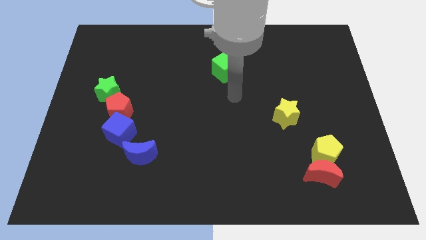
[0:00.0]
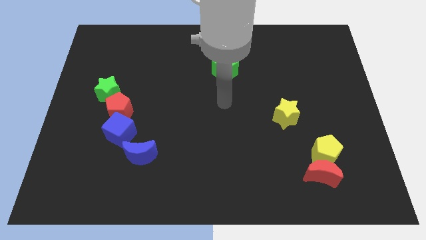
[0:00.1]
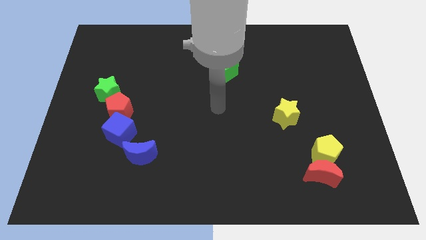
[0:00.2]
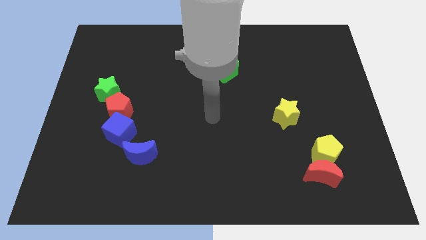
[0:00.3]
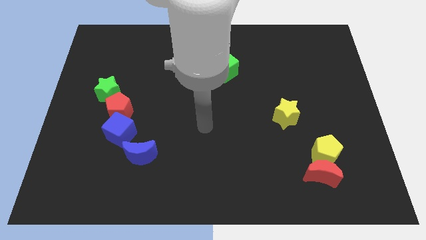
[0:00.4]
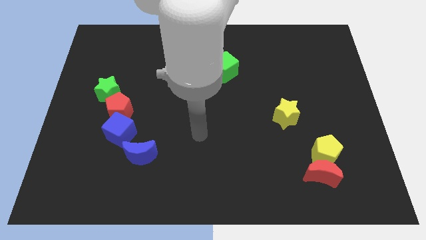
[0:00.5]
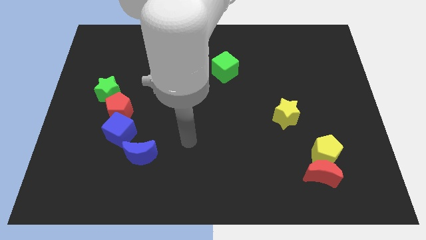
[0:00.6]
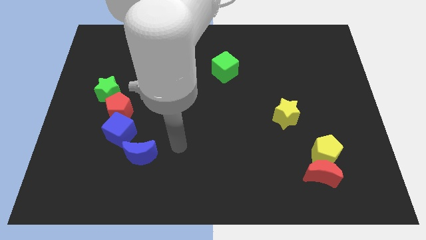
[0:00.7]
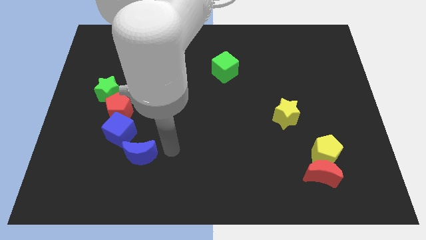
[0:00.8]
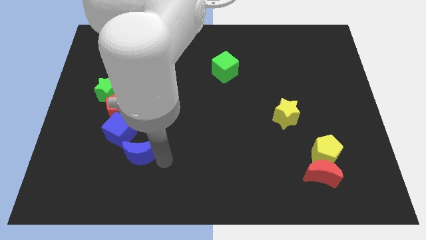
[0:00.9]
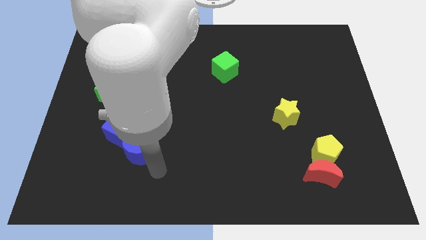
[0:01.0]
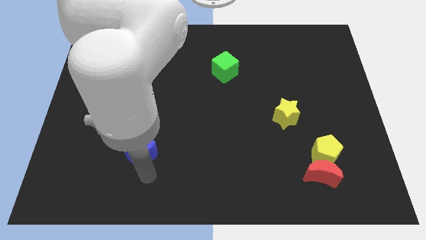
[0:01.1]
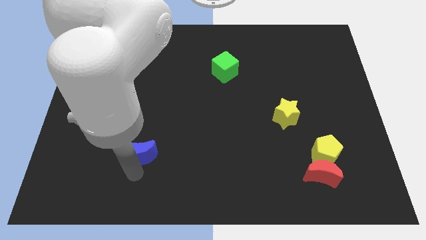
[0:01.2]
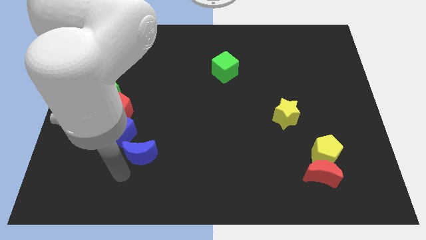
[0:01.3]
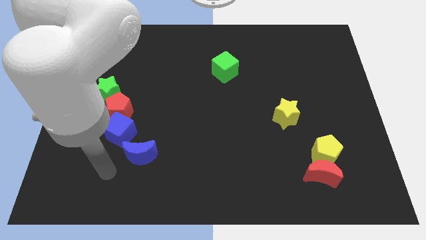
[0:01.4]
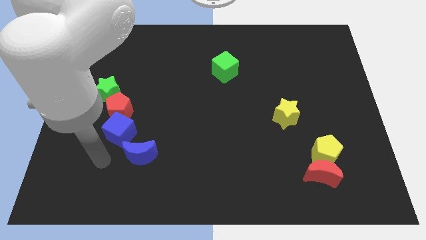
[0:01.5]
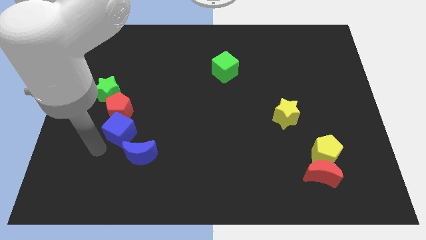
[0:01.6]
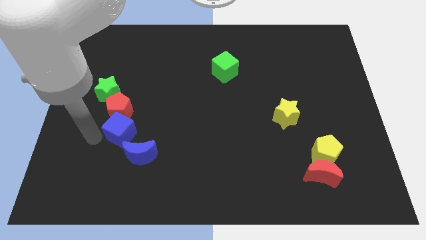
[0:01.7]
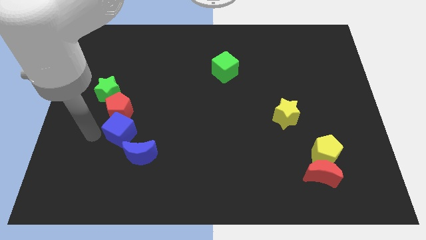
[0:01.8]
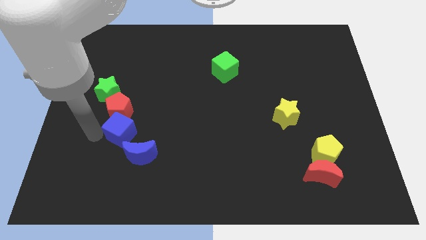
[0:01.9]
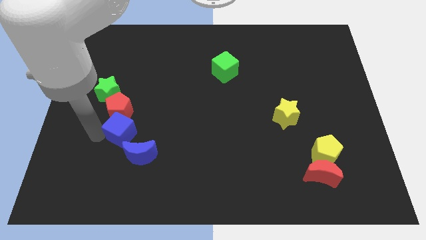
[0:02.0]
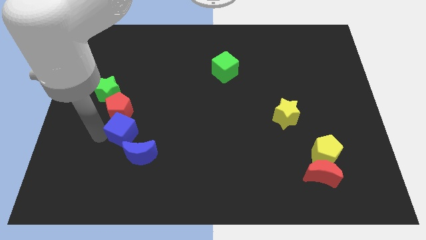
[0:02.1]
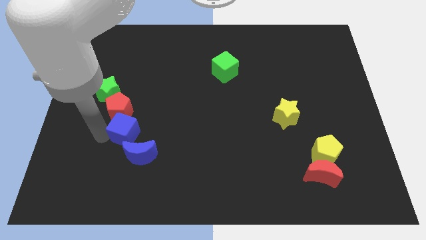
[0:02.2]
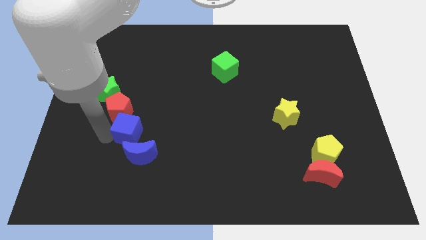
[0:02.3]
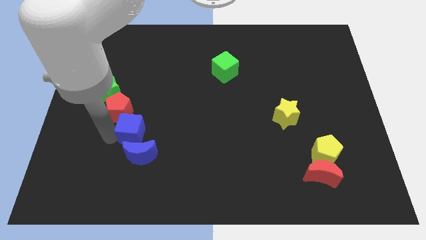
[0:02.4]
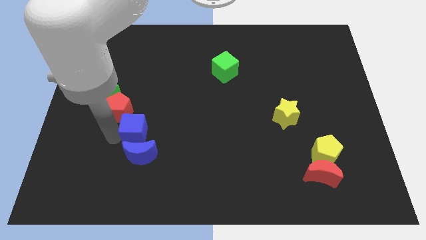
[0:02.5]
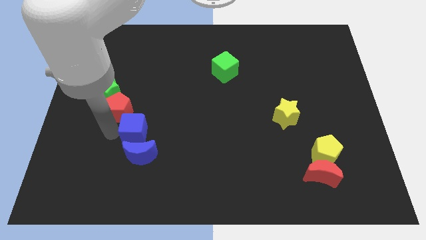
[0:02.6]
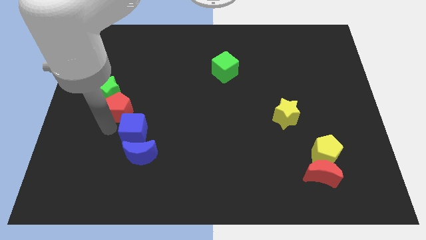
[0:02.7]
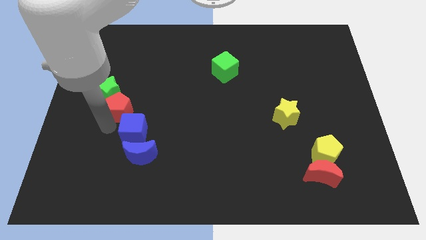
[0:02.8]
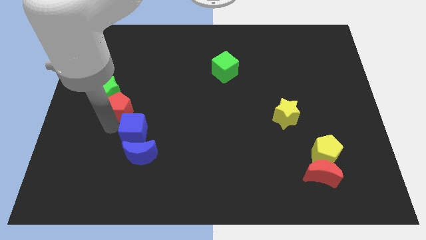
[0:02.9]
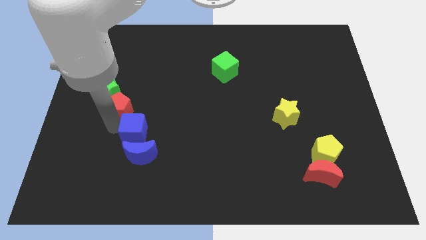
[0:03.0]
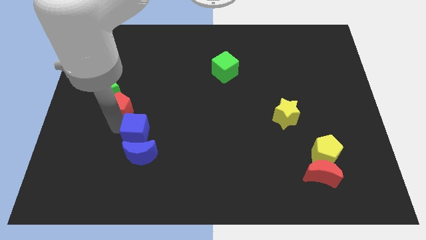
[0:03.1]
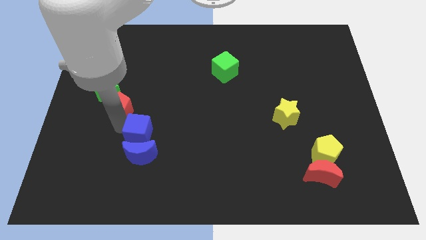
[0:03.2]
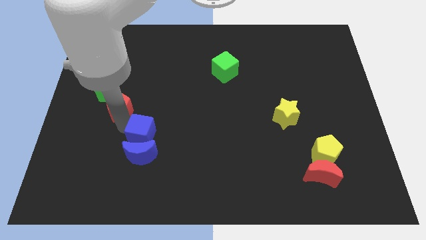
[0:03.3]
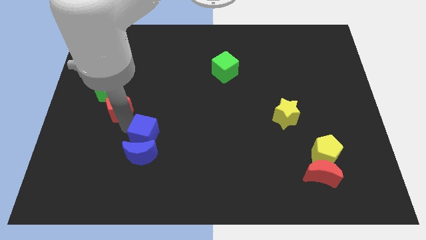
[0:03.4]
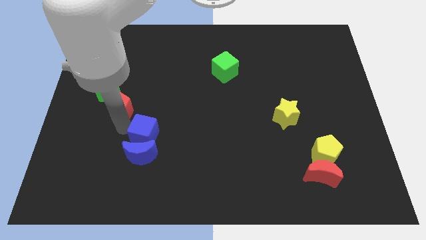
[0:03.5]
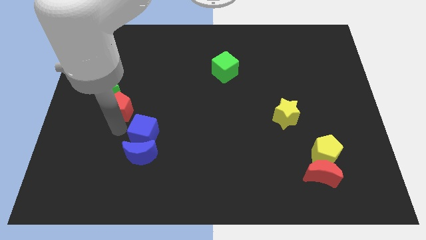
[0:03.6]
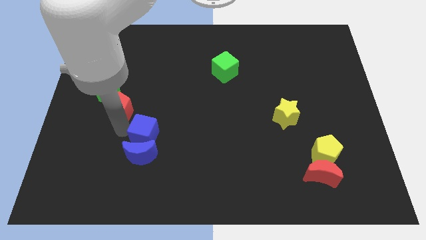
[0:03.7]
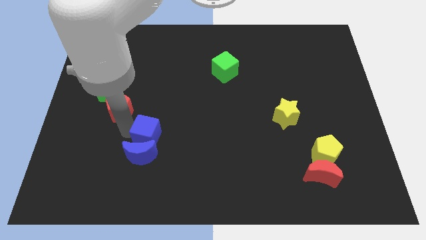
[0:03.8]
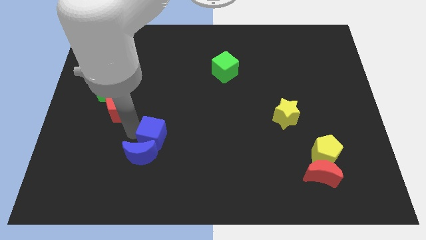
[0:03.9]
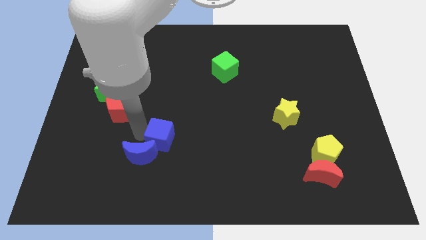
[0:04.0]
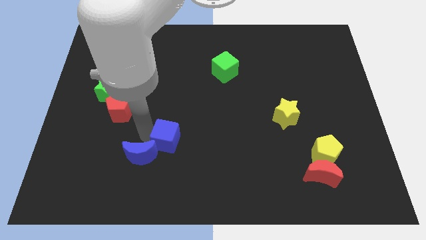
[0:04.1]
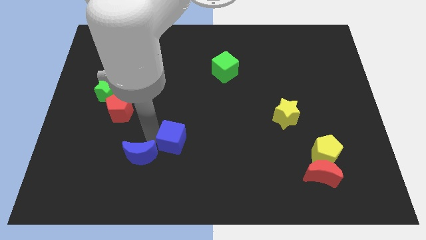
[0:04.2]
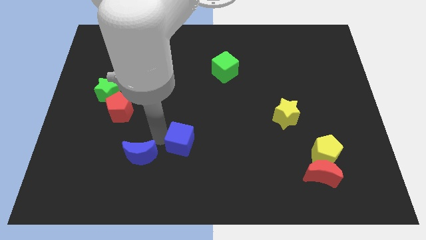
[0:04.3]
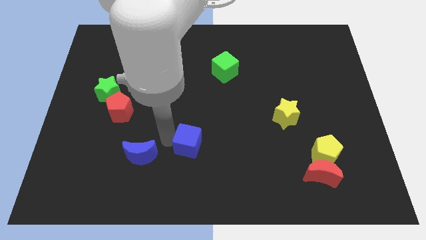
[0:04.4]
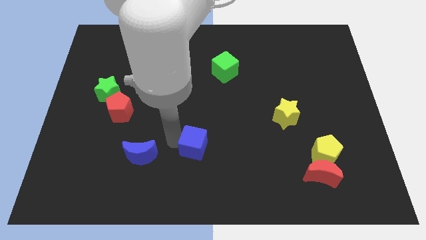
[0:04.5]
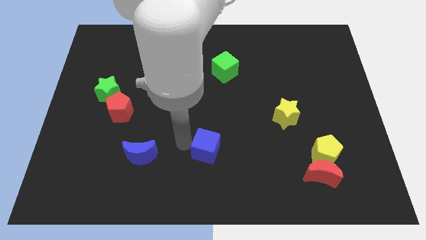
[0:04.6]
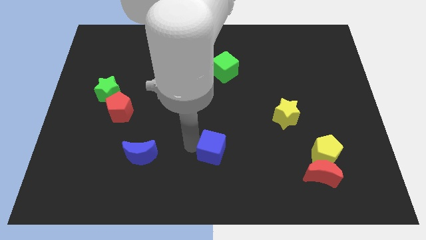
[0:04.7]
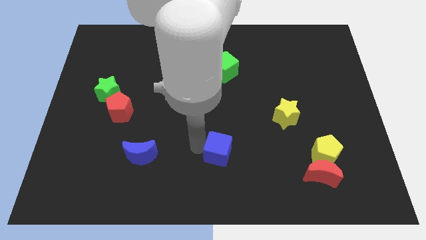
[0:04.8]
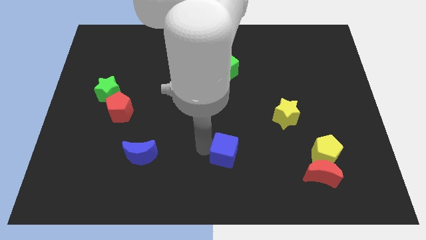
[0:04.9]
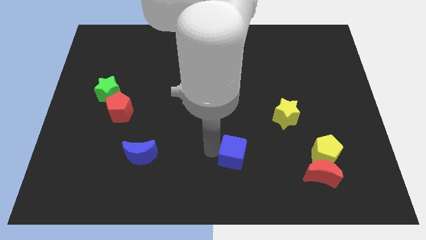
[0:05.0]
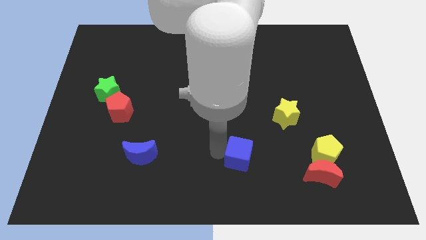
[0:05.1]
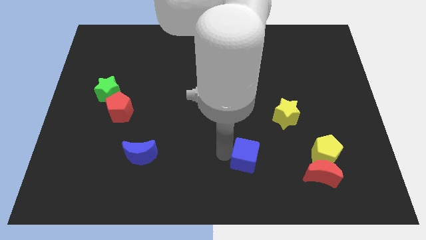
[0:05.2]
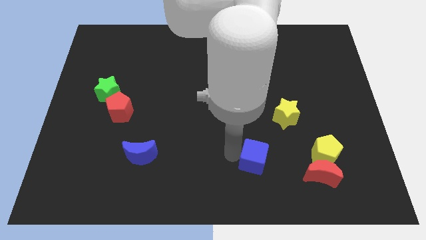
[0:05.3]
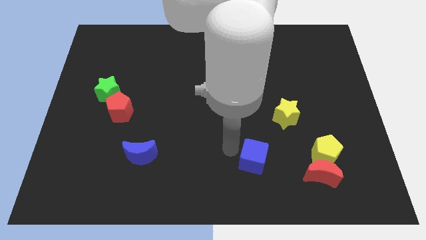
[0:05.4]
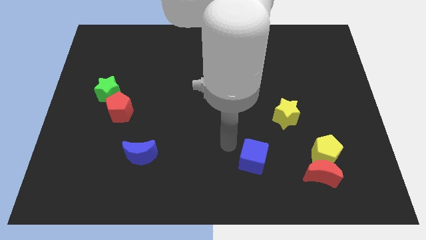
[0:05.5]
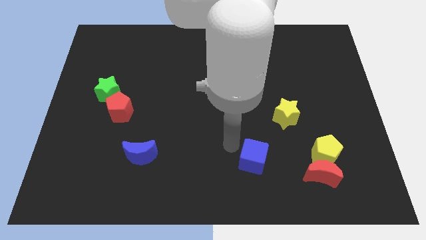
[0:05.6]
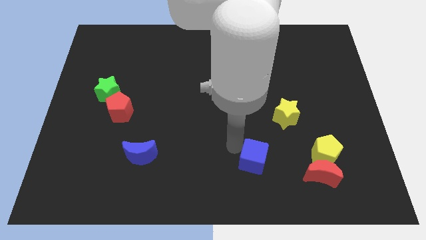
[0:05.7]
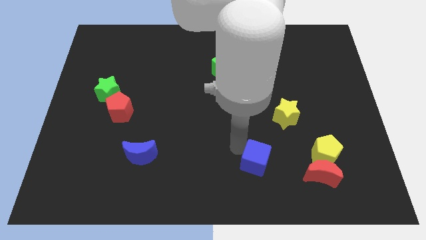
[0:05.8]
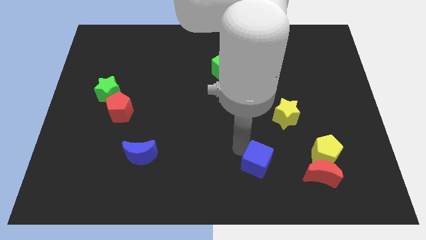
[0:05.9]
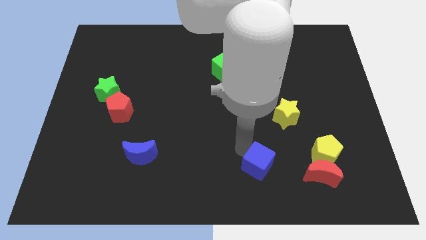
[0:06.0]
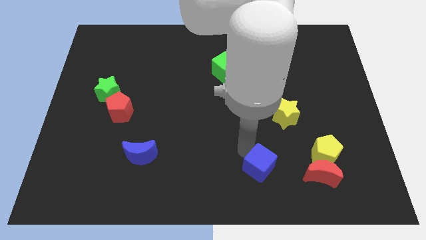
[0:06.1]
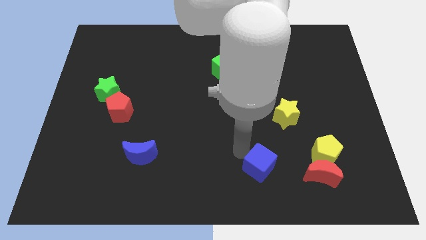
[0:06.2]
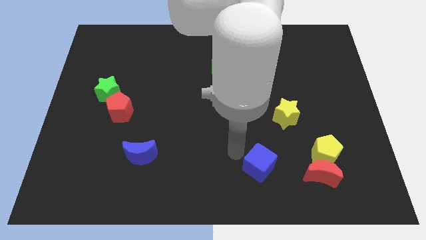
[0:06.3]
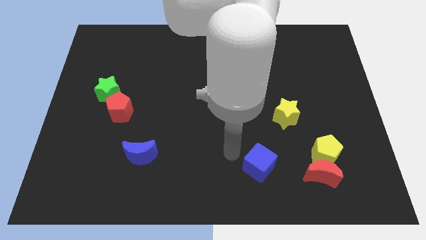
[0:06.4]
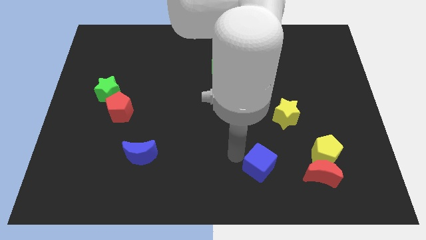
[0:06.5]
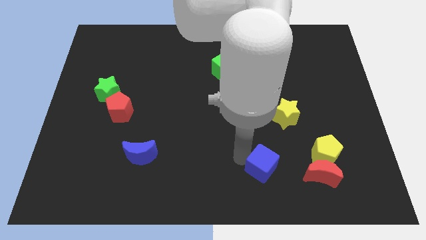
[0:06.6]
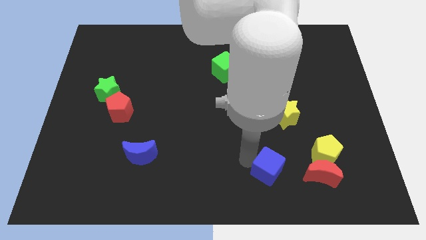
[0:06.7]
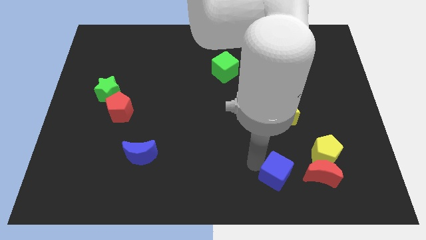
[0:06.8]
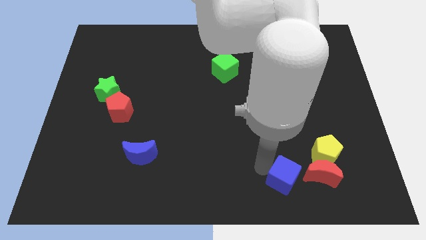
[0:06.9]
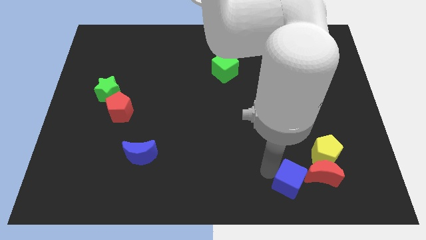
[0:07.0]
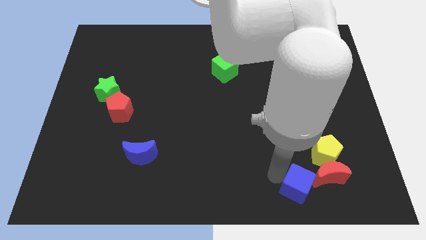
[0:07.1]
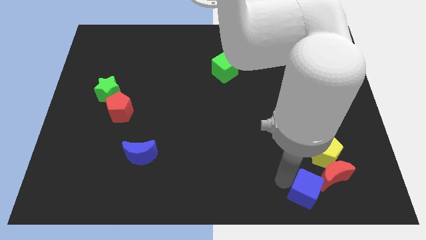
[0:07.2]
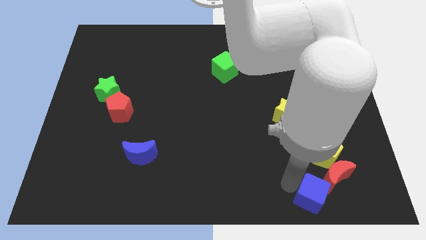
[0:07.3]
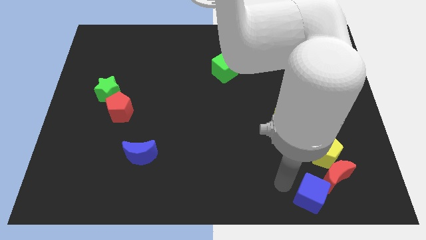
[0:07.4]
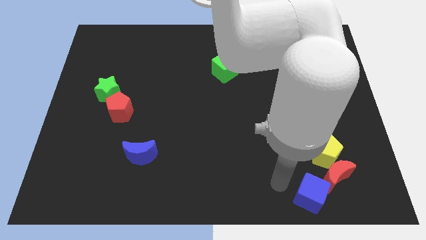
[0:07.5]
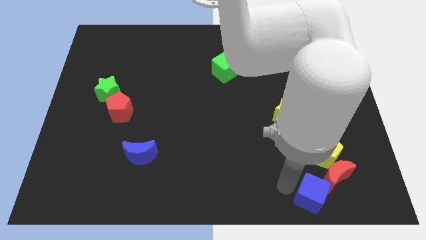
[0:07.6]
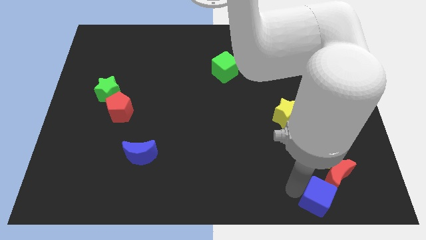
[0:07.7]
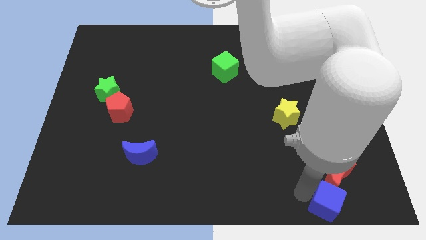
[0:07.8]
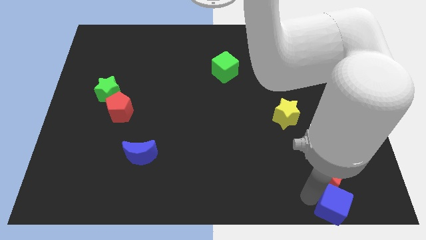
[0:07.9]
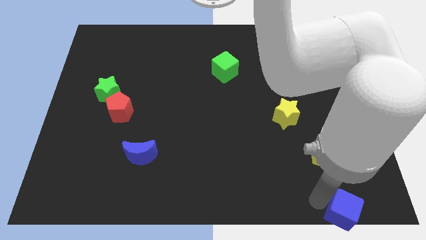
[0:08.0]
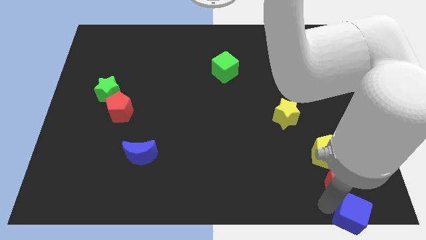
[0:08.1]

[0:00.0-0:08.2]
slide the blue cube to the bottom right corner
